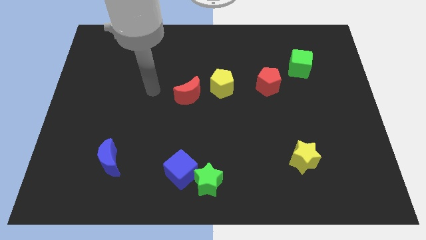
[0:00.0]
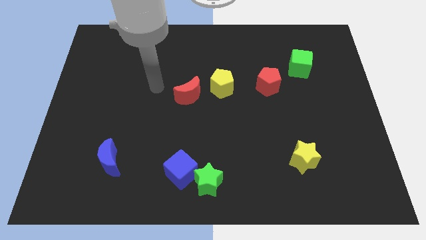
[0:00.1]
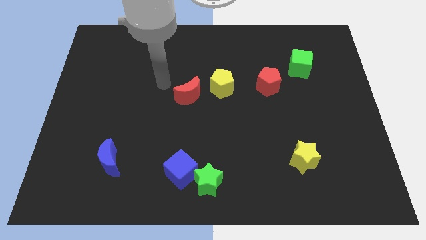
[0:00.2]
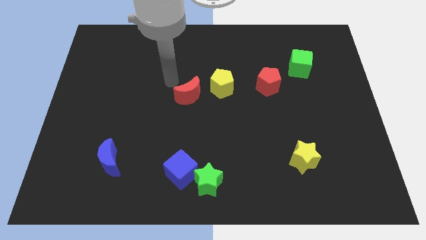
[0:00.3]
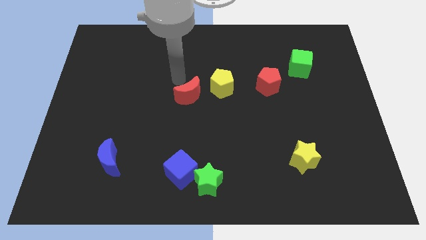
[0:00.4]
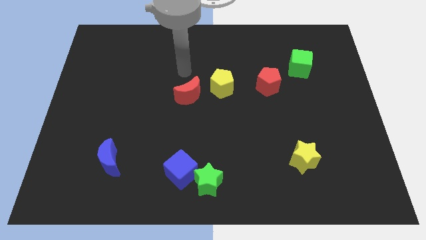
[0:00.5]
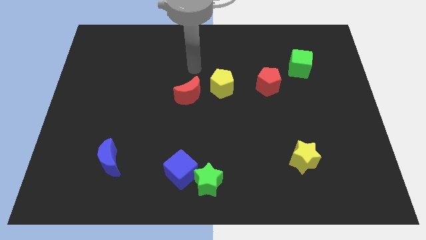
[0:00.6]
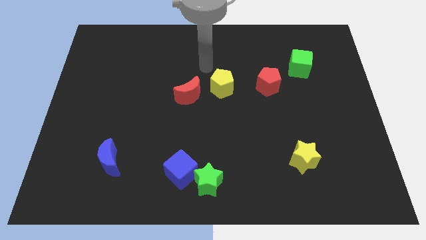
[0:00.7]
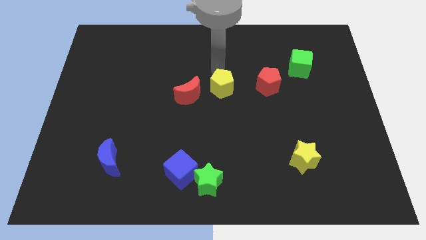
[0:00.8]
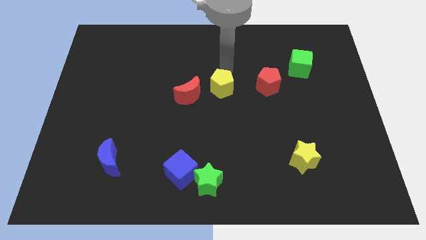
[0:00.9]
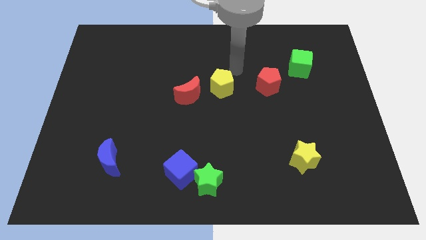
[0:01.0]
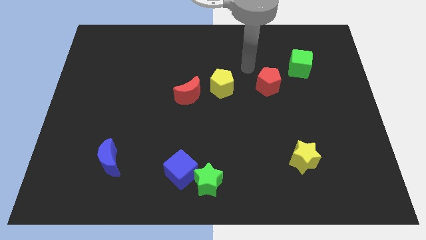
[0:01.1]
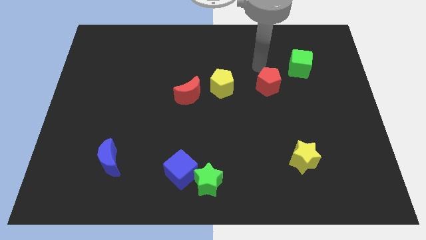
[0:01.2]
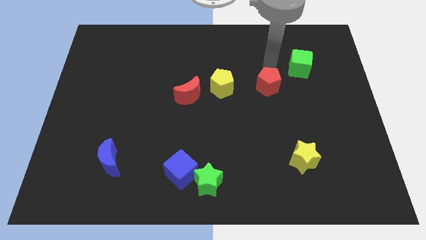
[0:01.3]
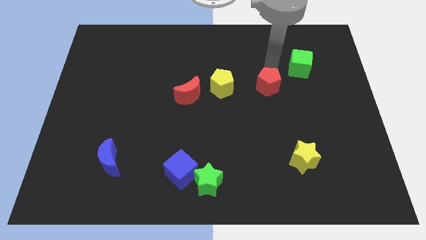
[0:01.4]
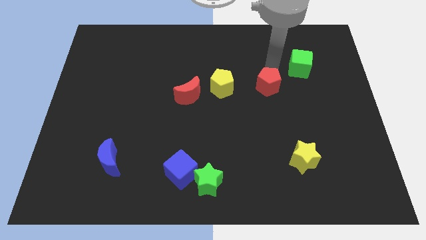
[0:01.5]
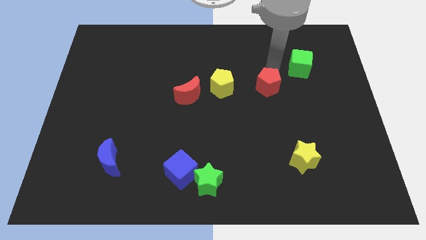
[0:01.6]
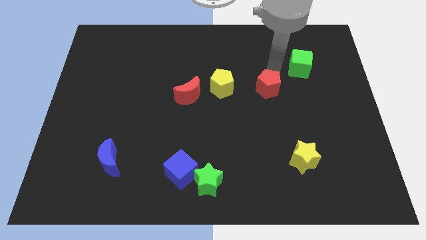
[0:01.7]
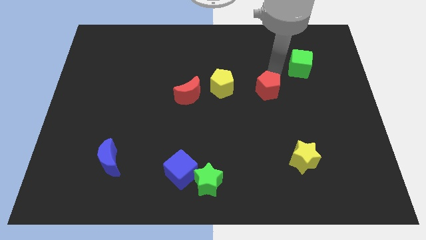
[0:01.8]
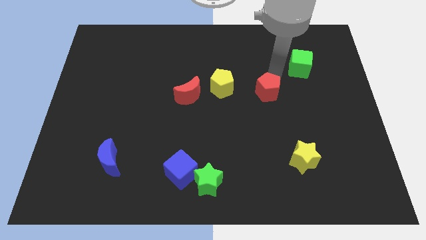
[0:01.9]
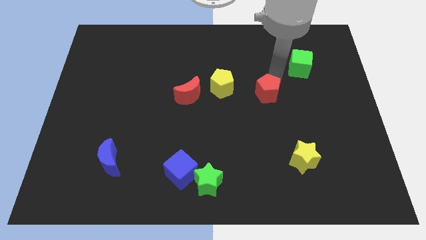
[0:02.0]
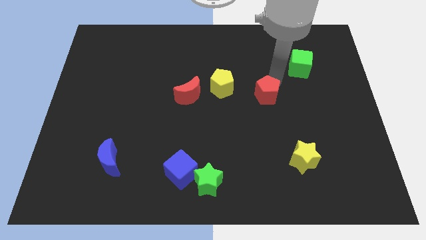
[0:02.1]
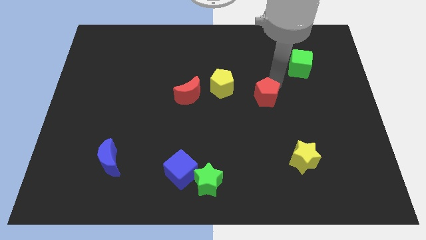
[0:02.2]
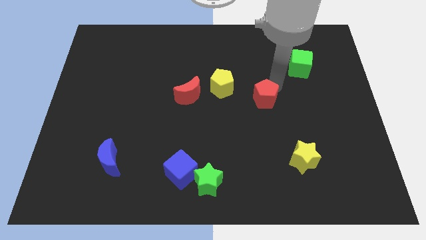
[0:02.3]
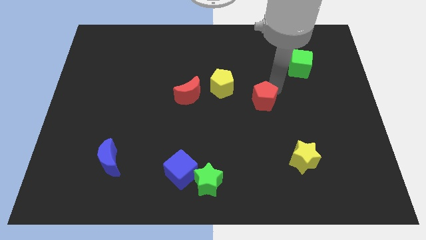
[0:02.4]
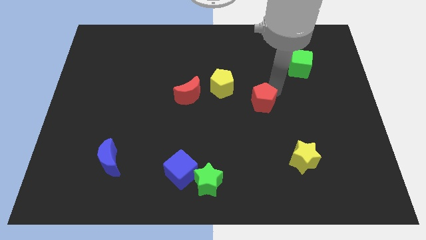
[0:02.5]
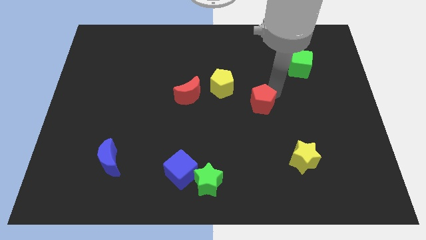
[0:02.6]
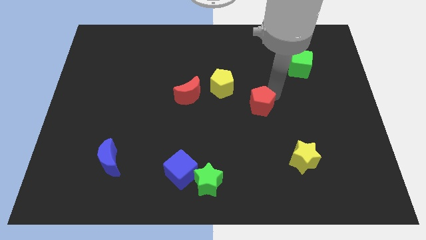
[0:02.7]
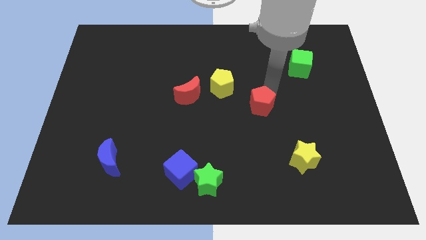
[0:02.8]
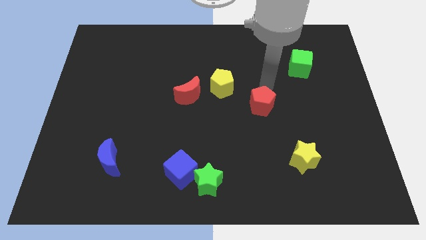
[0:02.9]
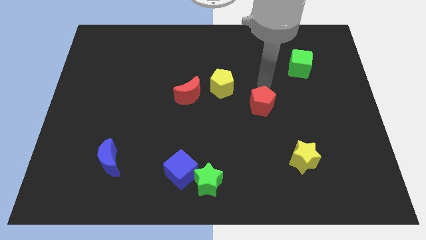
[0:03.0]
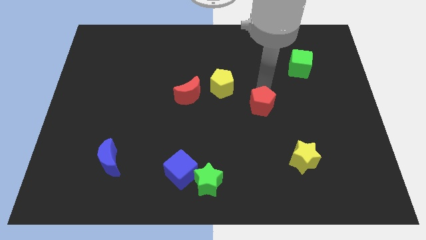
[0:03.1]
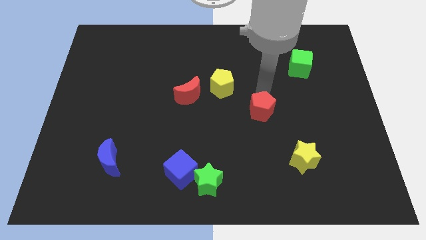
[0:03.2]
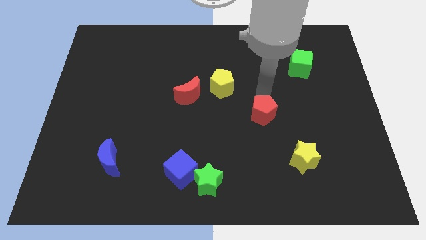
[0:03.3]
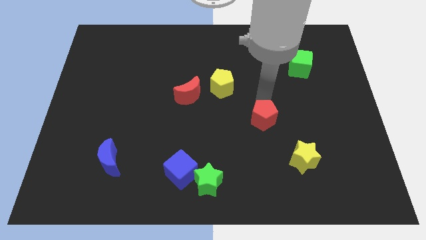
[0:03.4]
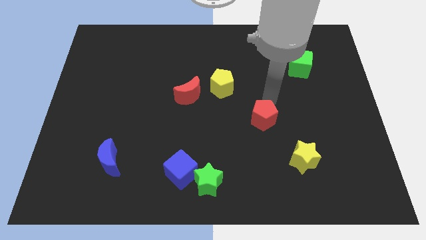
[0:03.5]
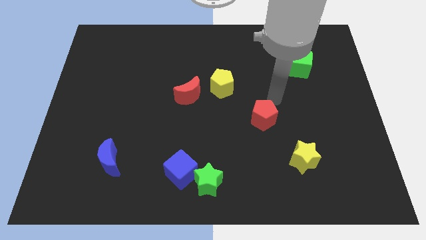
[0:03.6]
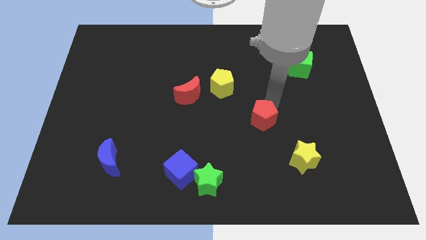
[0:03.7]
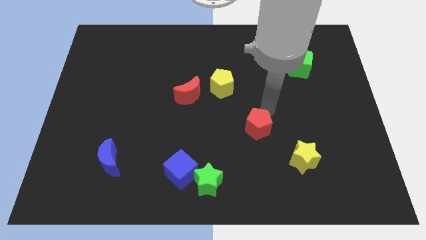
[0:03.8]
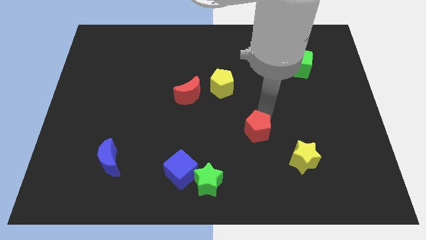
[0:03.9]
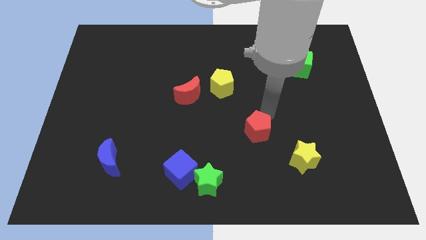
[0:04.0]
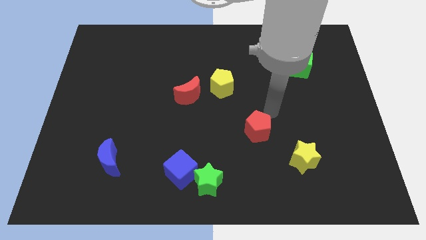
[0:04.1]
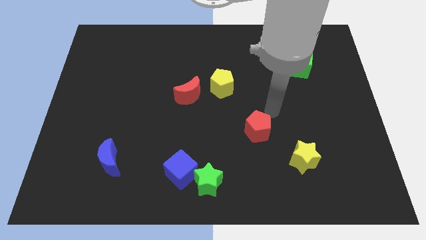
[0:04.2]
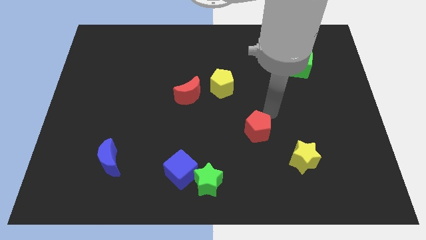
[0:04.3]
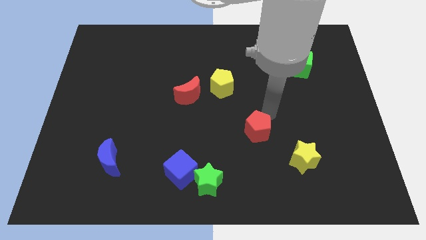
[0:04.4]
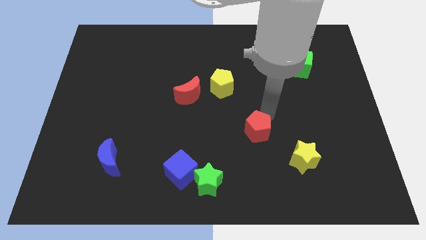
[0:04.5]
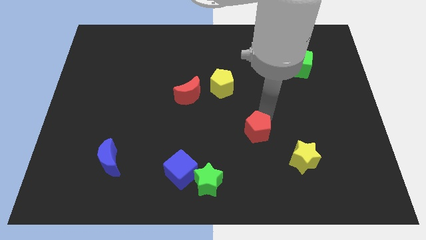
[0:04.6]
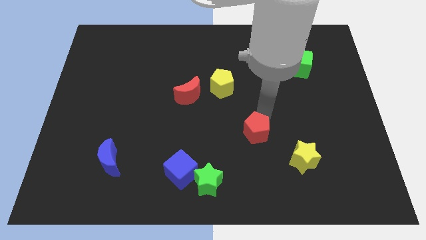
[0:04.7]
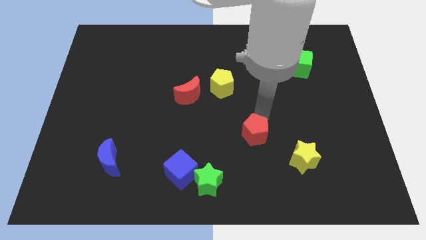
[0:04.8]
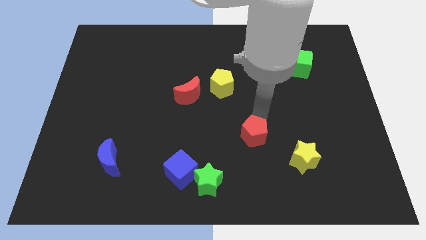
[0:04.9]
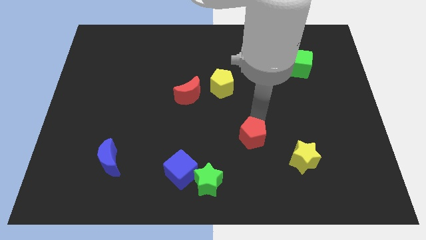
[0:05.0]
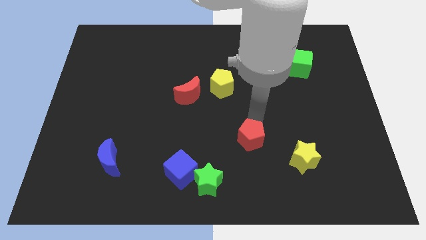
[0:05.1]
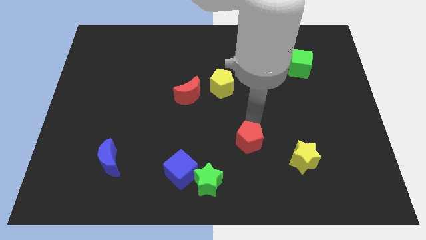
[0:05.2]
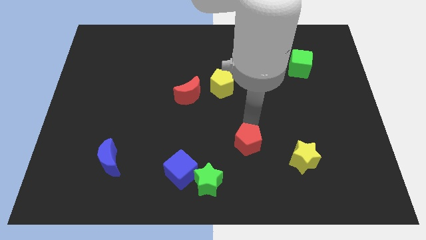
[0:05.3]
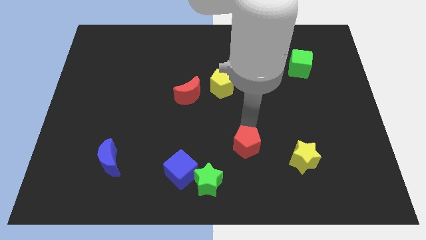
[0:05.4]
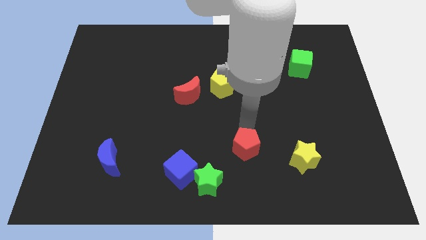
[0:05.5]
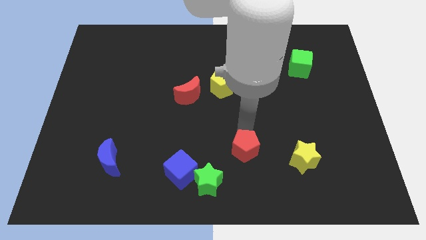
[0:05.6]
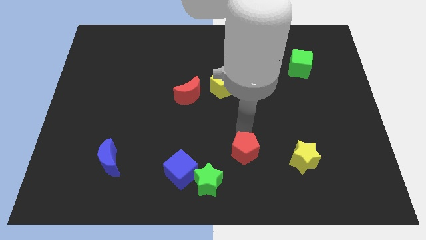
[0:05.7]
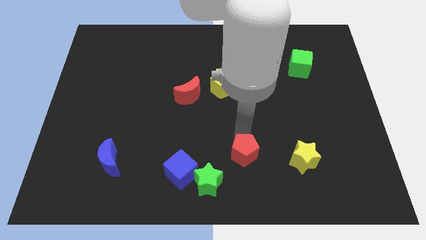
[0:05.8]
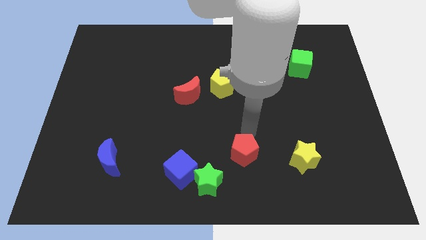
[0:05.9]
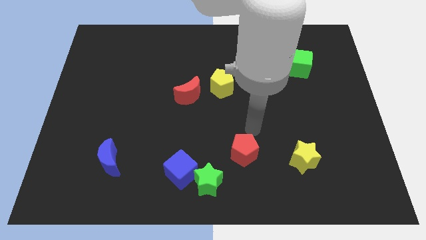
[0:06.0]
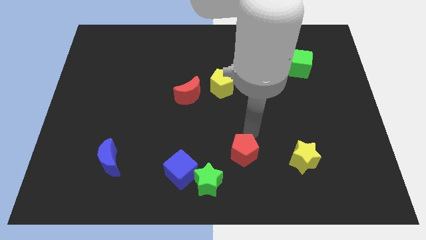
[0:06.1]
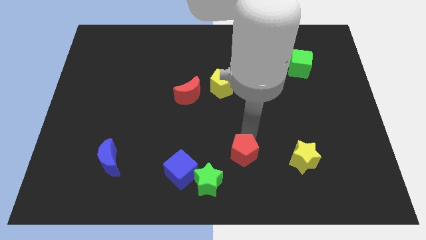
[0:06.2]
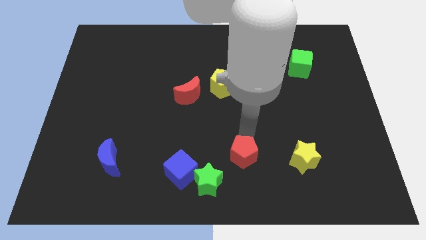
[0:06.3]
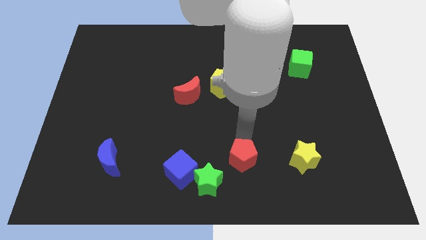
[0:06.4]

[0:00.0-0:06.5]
slide the red pentagon to the bottom
